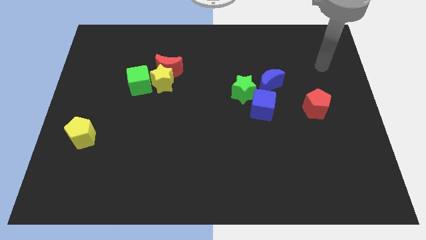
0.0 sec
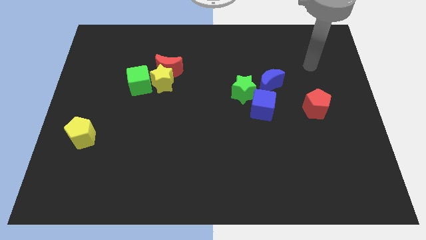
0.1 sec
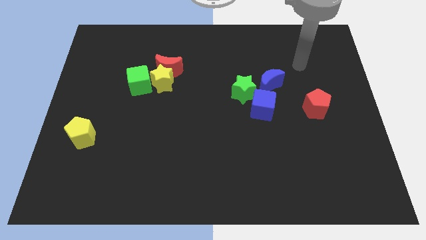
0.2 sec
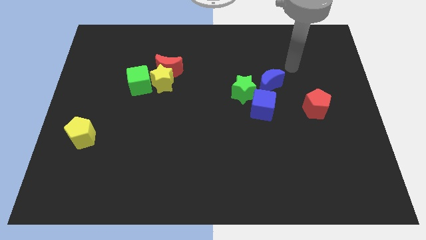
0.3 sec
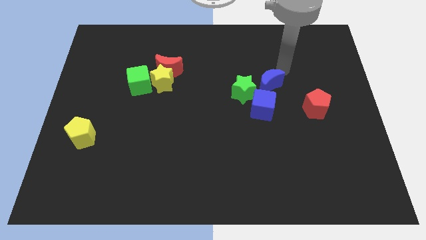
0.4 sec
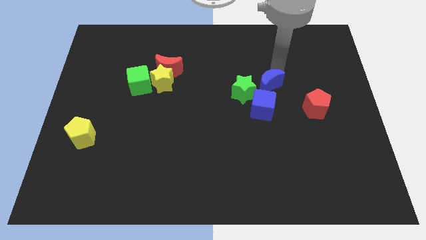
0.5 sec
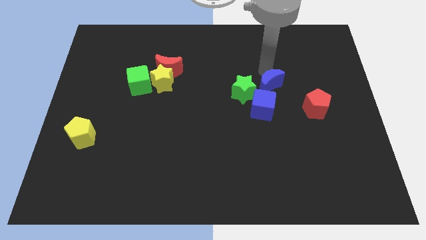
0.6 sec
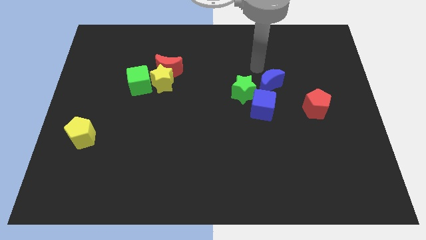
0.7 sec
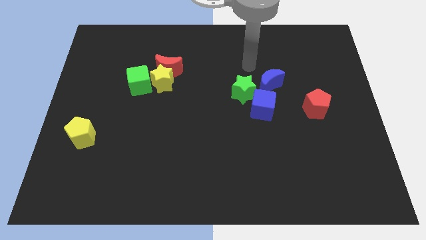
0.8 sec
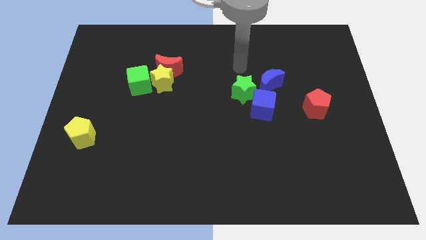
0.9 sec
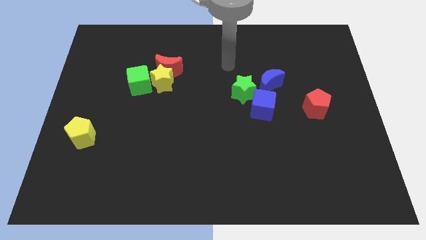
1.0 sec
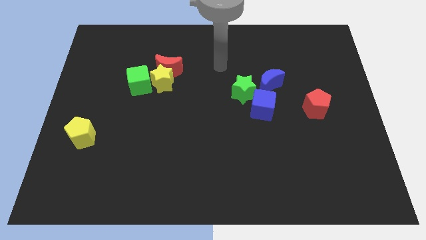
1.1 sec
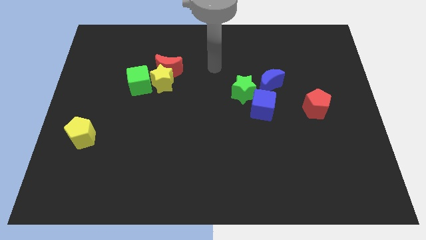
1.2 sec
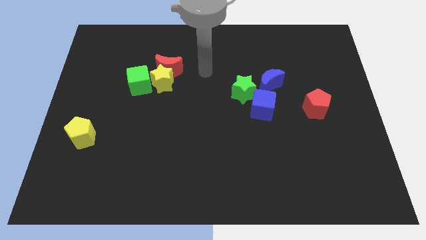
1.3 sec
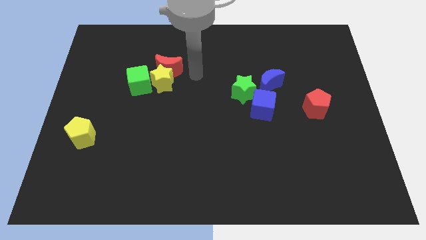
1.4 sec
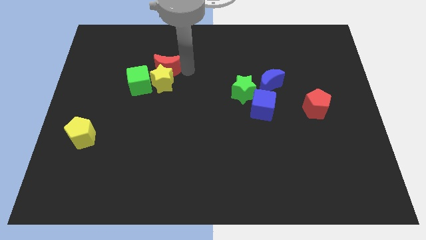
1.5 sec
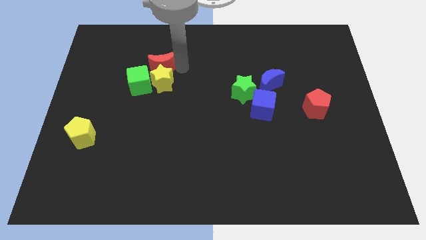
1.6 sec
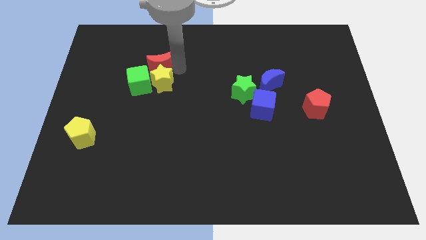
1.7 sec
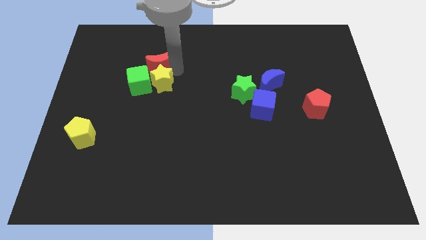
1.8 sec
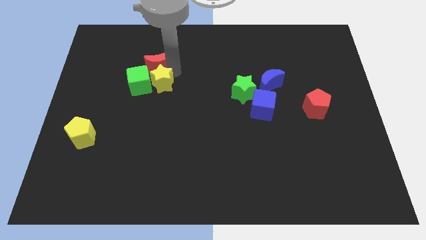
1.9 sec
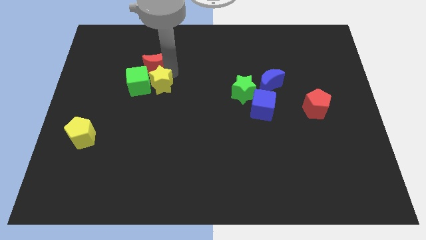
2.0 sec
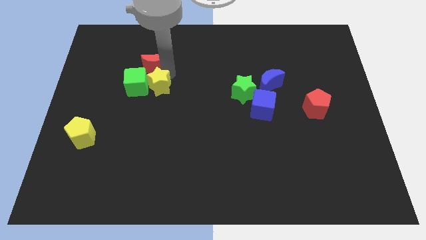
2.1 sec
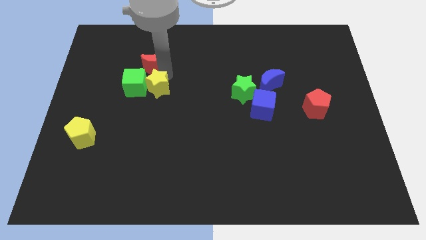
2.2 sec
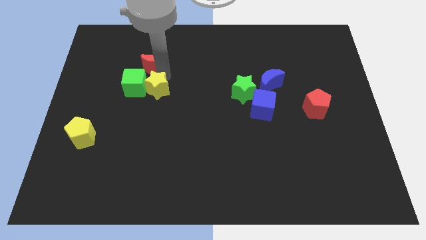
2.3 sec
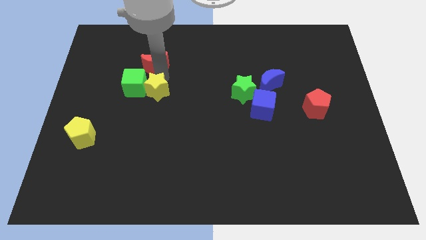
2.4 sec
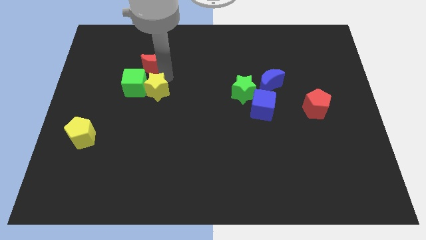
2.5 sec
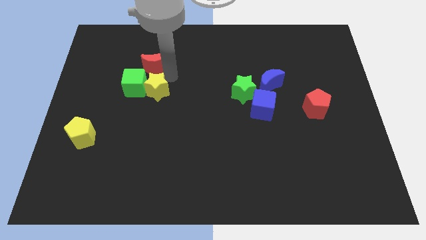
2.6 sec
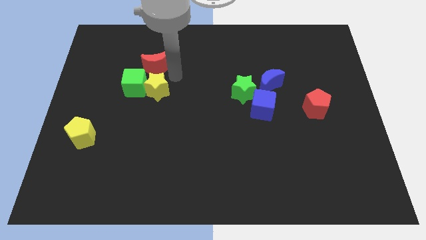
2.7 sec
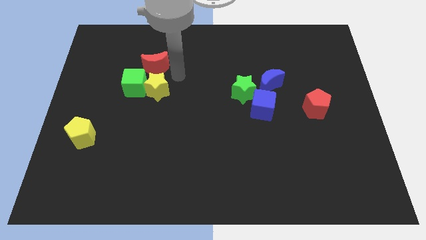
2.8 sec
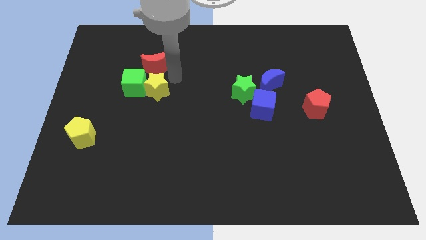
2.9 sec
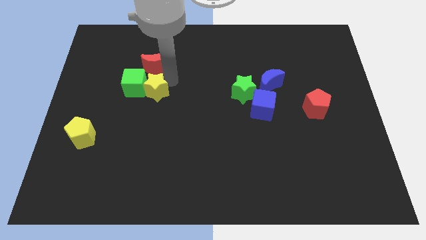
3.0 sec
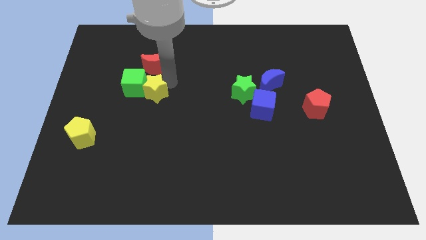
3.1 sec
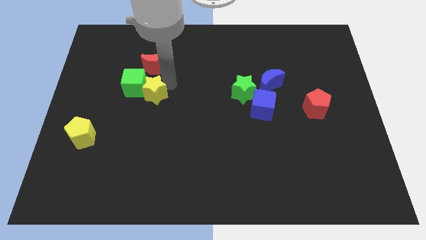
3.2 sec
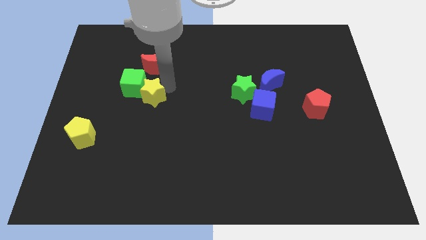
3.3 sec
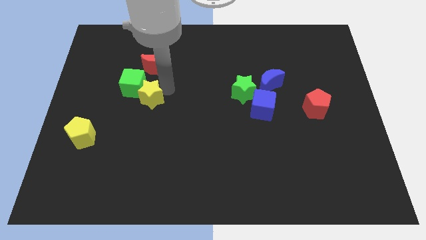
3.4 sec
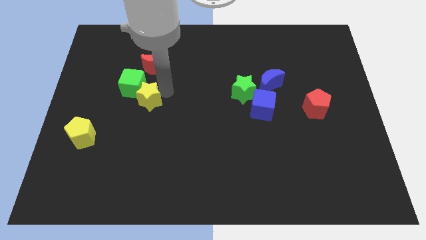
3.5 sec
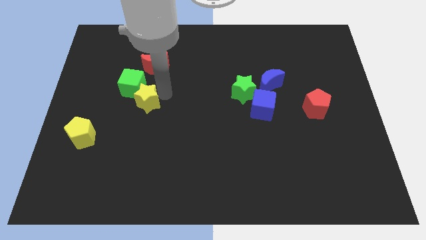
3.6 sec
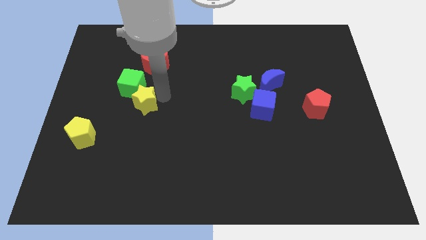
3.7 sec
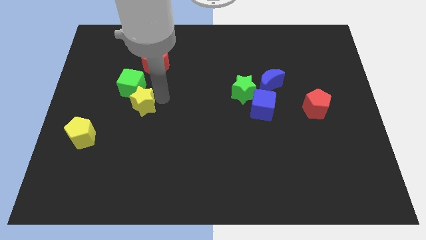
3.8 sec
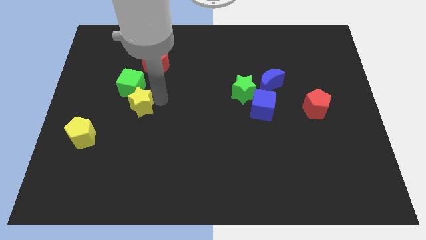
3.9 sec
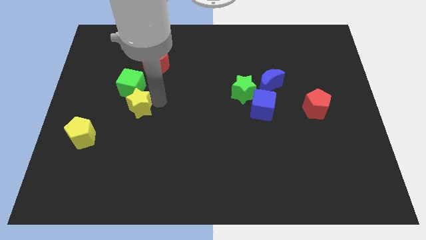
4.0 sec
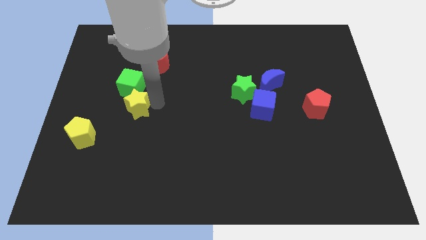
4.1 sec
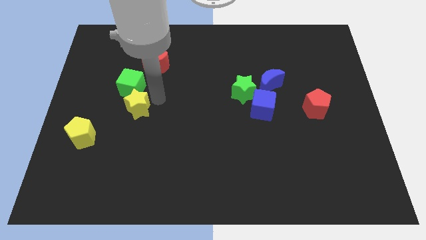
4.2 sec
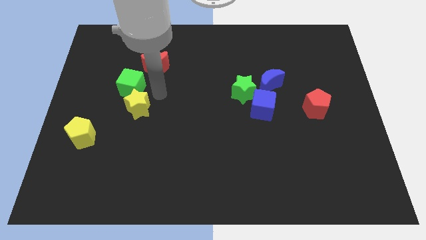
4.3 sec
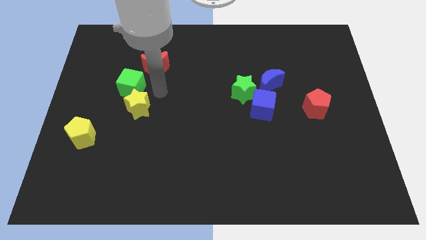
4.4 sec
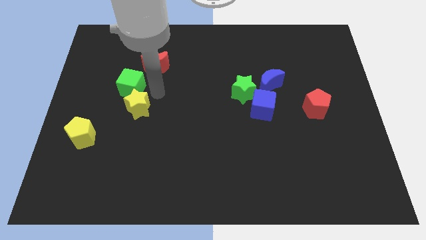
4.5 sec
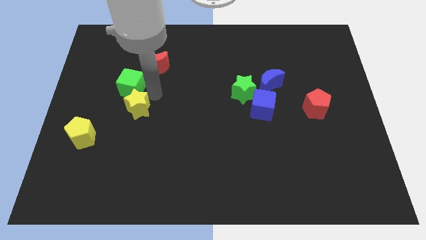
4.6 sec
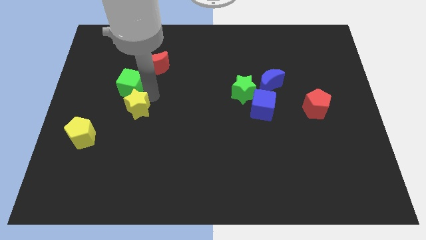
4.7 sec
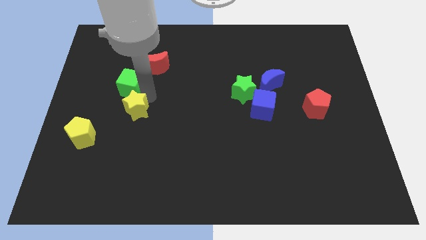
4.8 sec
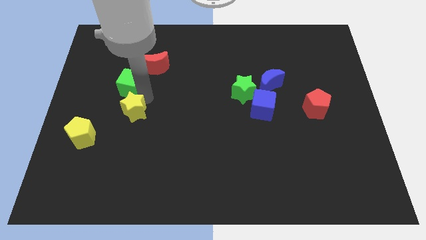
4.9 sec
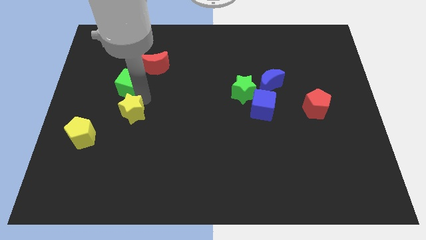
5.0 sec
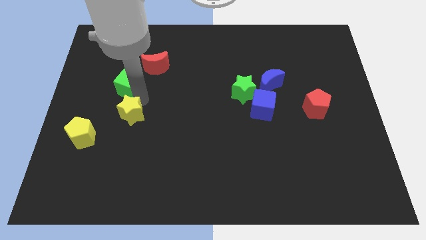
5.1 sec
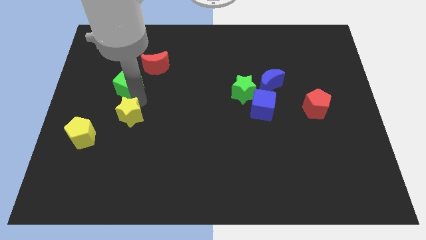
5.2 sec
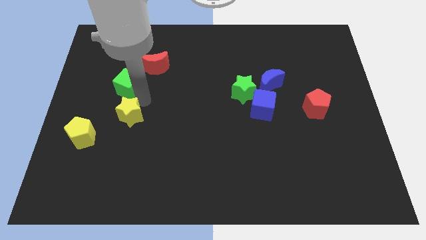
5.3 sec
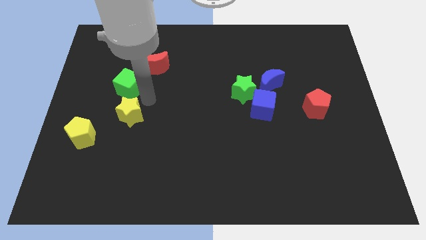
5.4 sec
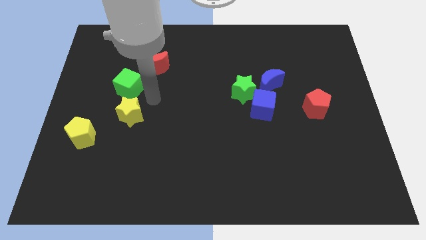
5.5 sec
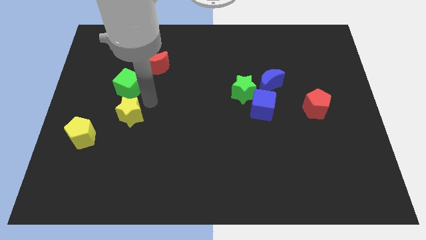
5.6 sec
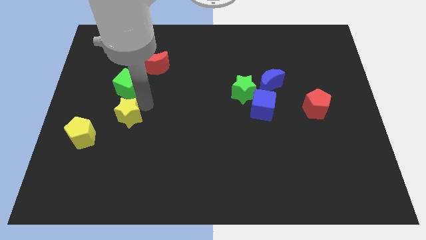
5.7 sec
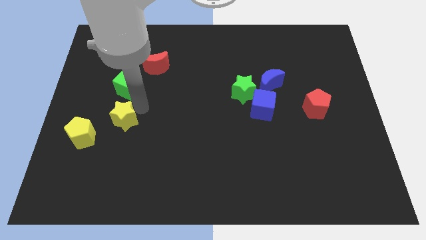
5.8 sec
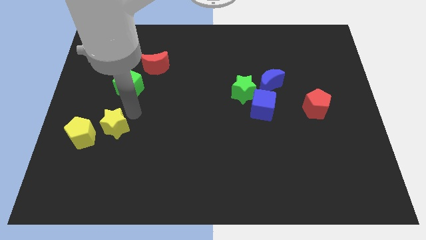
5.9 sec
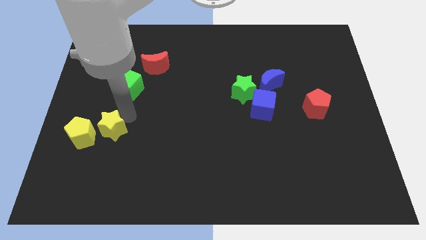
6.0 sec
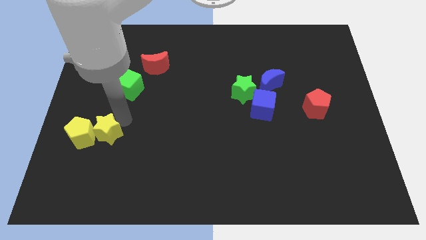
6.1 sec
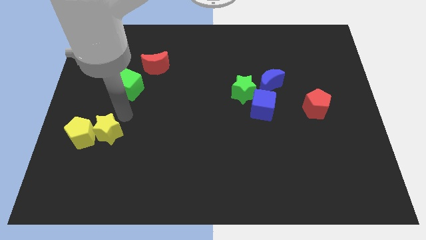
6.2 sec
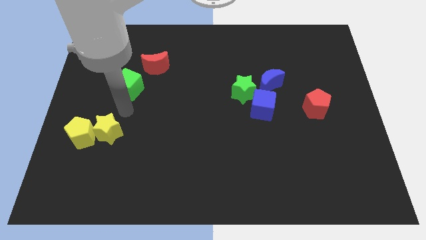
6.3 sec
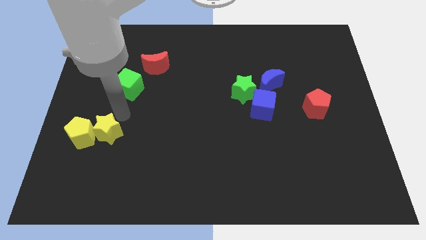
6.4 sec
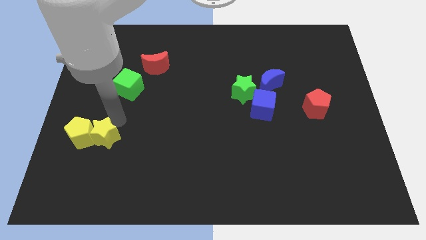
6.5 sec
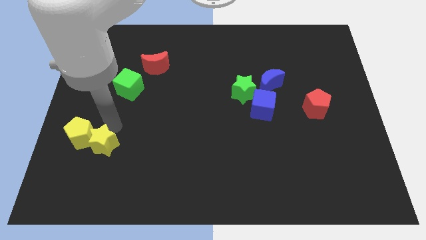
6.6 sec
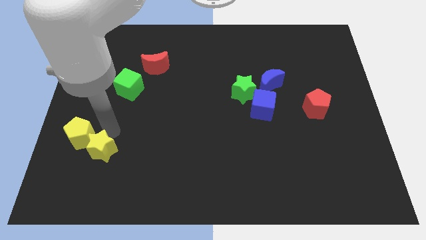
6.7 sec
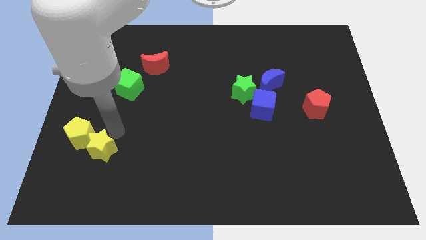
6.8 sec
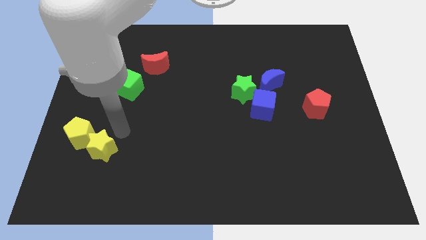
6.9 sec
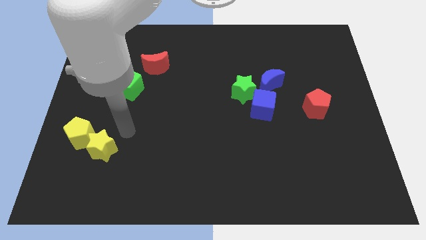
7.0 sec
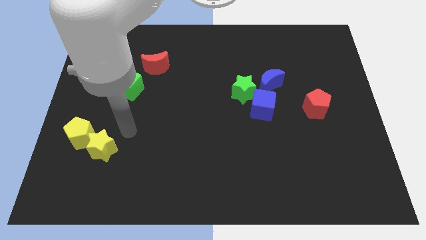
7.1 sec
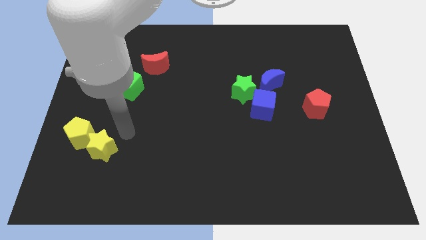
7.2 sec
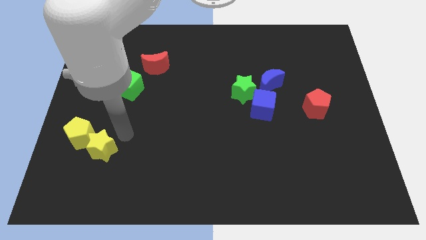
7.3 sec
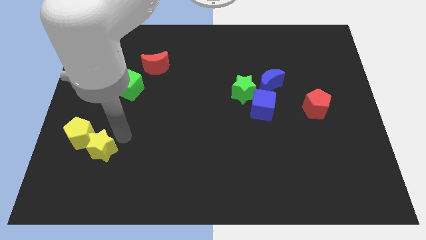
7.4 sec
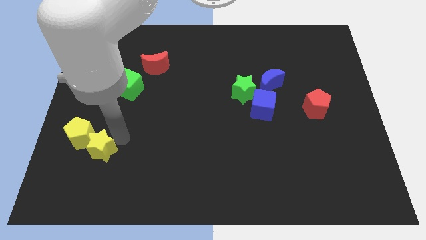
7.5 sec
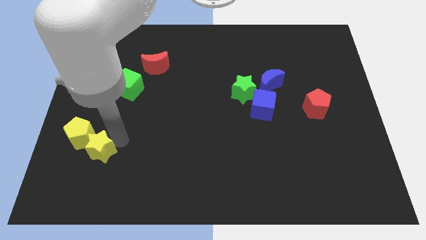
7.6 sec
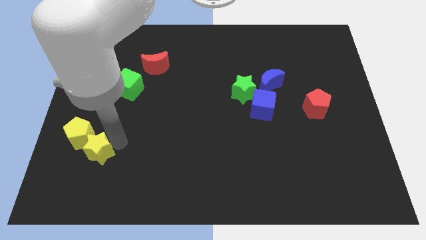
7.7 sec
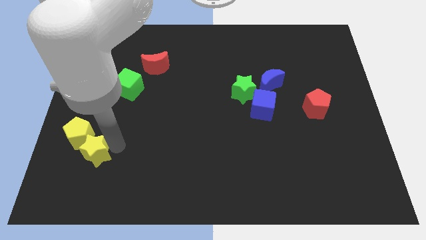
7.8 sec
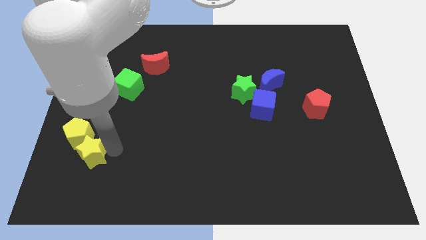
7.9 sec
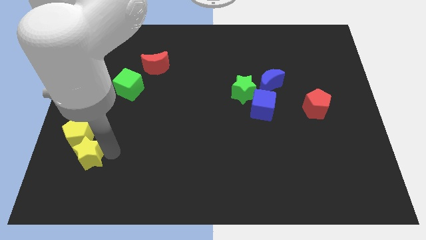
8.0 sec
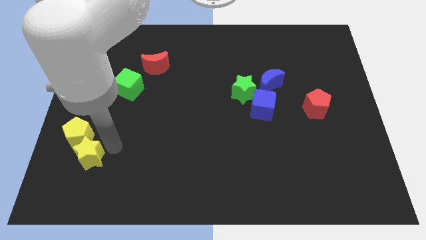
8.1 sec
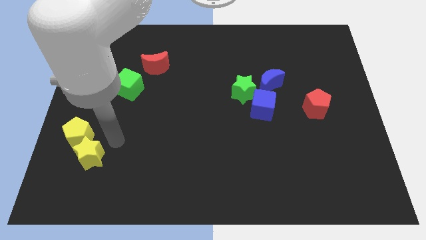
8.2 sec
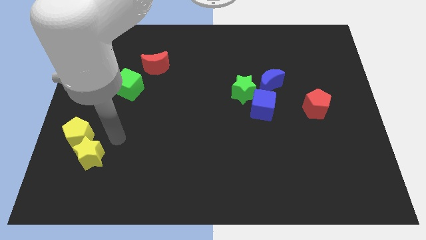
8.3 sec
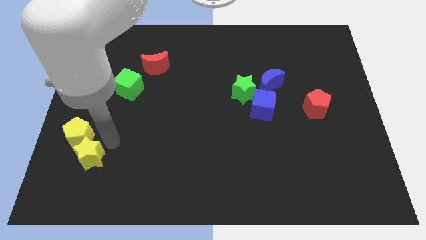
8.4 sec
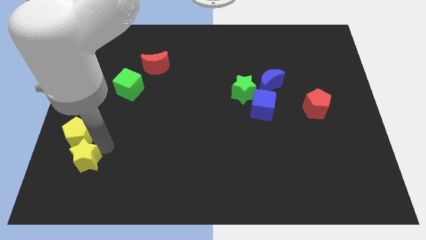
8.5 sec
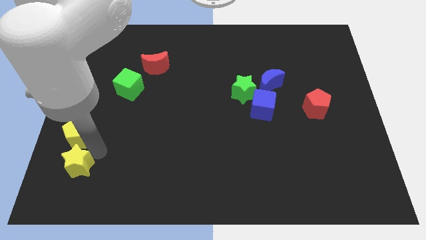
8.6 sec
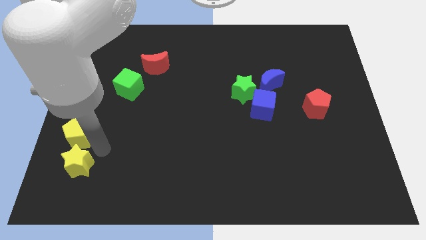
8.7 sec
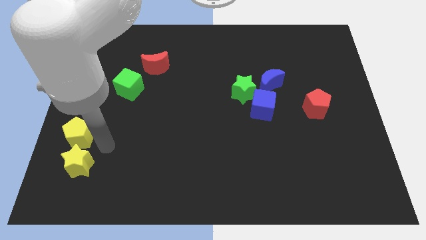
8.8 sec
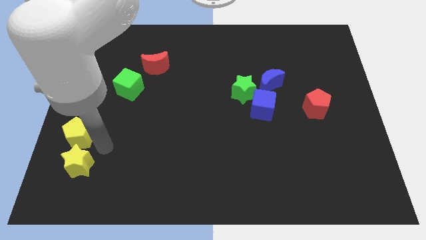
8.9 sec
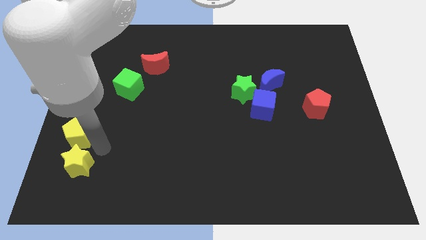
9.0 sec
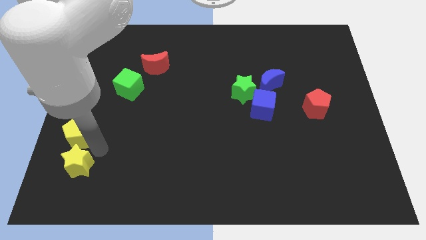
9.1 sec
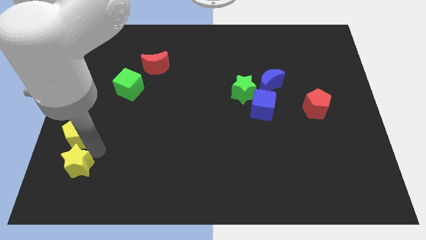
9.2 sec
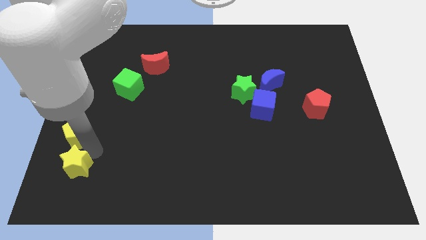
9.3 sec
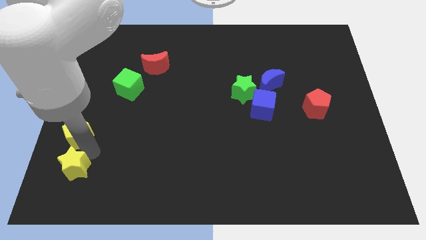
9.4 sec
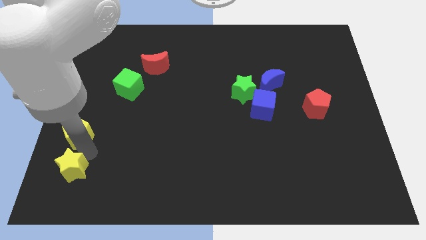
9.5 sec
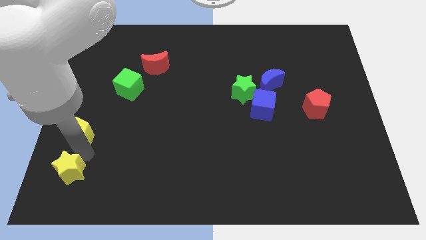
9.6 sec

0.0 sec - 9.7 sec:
put the yellow star to the bottom left of the board
